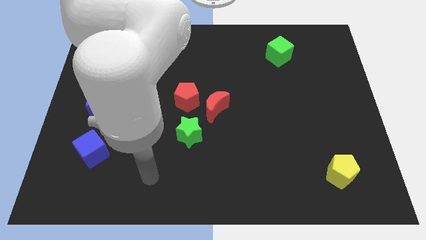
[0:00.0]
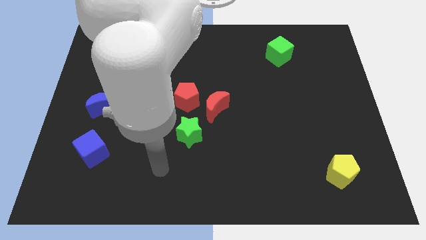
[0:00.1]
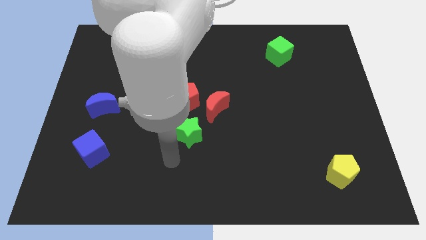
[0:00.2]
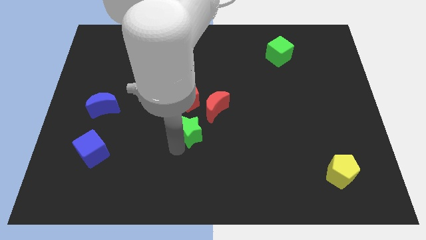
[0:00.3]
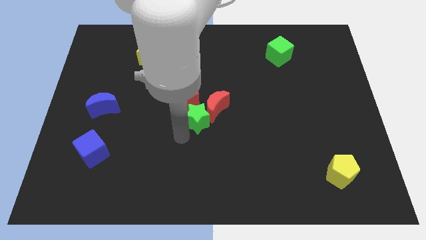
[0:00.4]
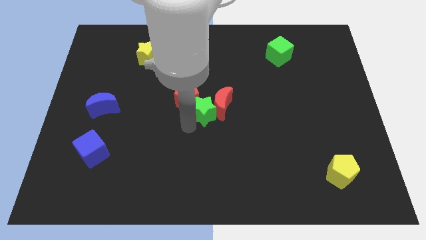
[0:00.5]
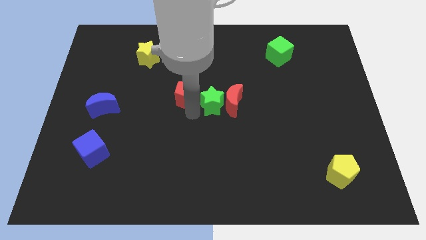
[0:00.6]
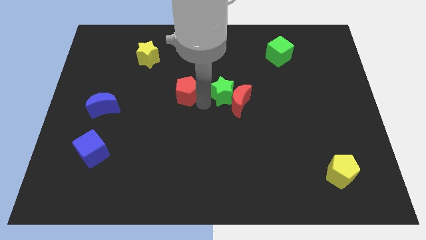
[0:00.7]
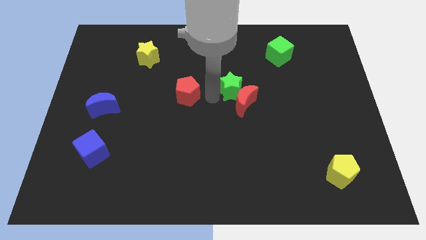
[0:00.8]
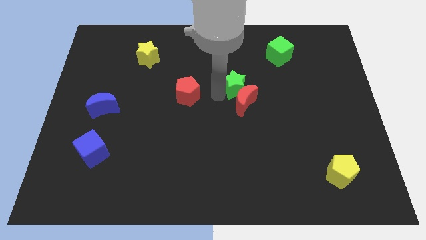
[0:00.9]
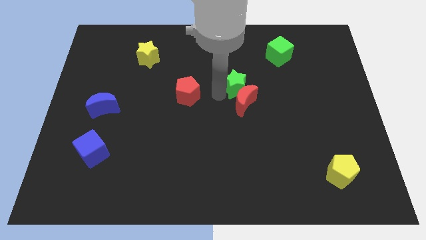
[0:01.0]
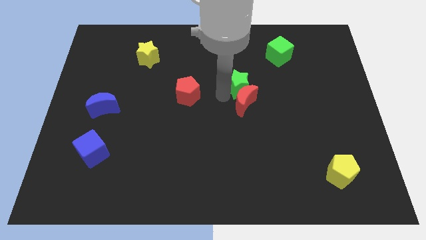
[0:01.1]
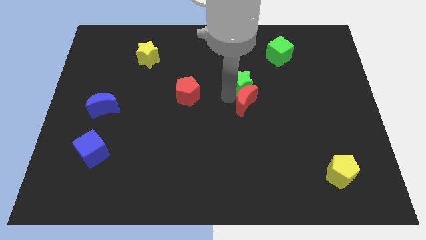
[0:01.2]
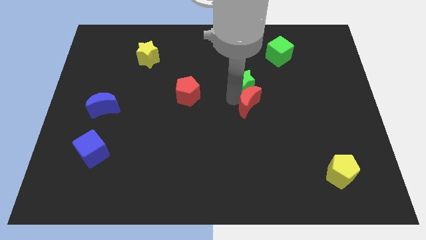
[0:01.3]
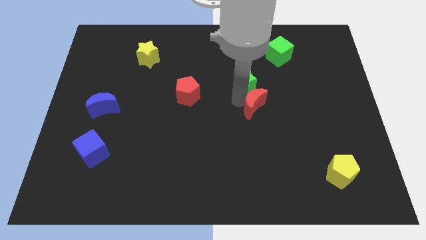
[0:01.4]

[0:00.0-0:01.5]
move the red moon away from the red pentagon and green star

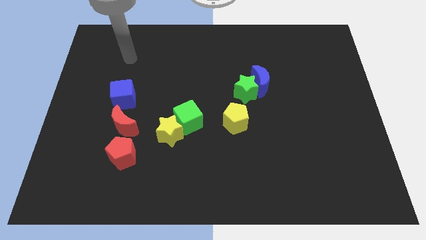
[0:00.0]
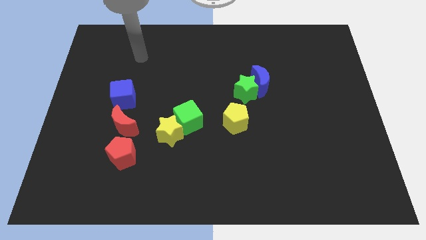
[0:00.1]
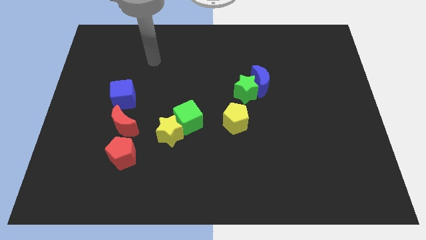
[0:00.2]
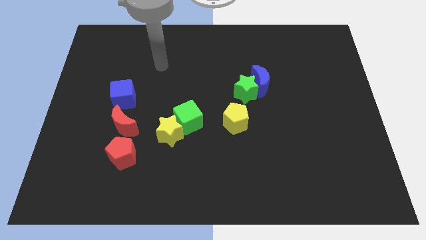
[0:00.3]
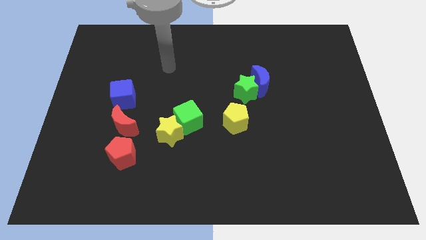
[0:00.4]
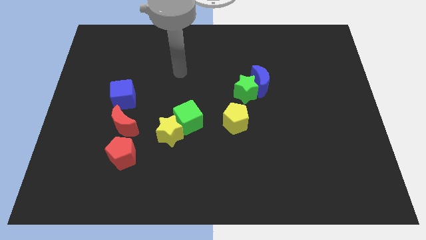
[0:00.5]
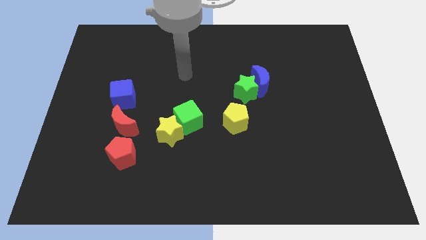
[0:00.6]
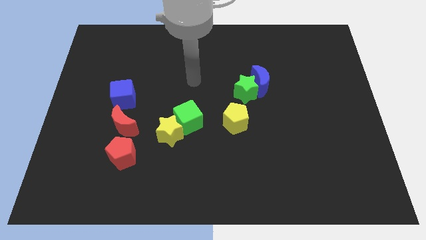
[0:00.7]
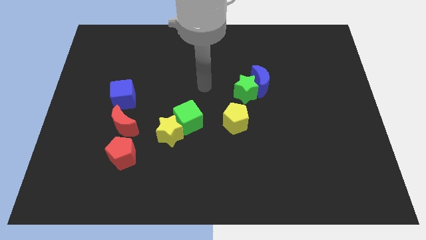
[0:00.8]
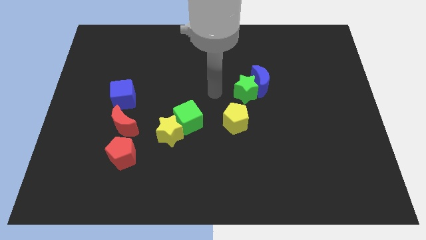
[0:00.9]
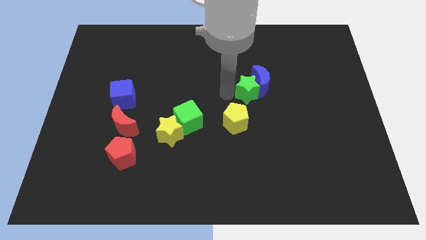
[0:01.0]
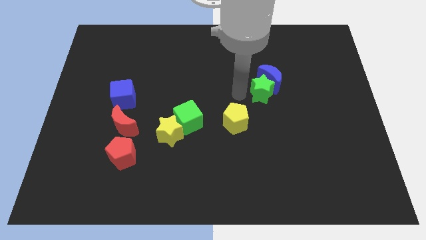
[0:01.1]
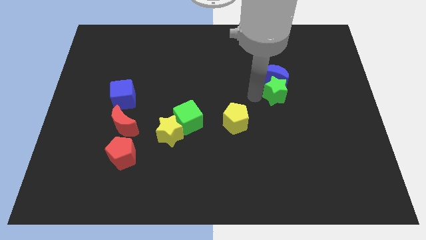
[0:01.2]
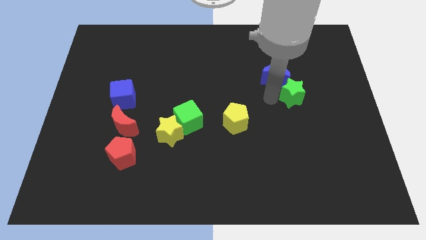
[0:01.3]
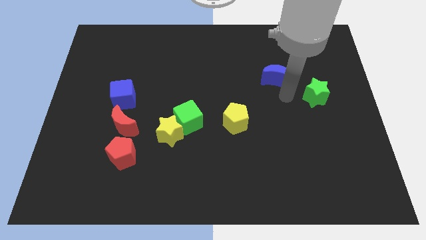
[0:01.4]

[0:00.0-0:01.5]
pull the blue moon apart from the green star

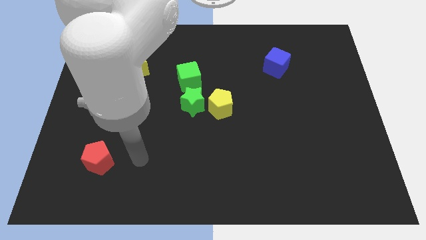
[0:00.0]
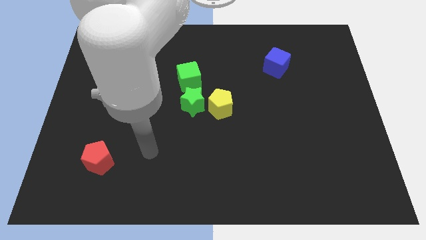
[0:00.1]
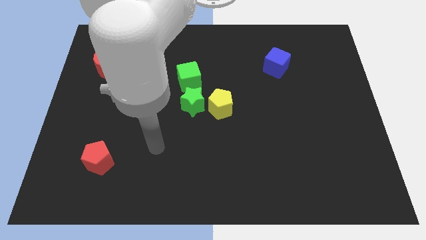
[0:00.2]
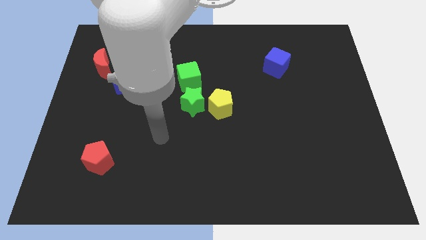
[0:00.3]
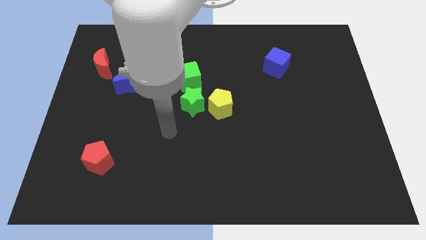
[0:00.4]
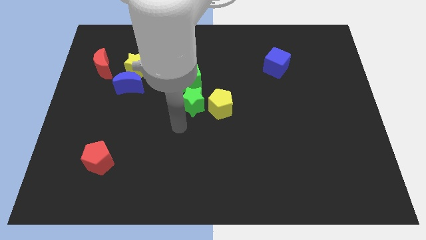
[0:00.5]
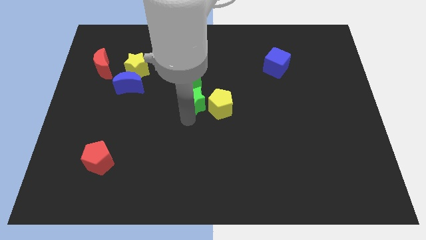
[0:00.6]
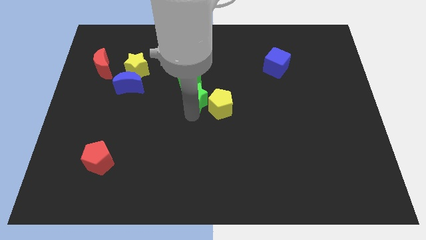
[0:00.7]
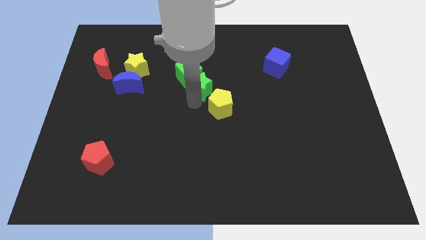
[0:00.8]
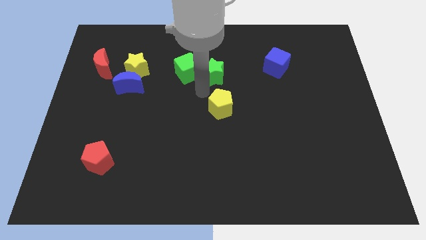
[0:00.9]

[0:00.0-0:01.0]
separate the yellow pentagon from the green star

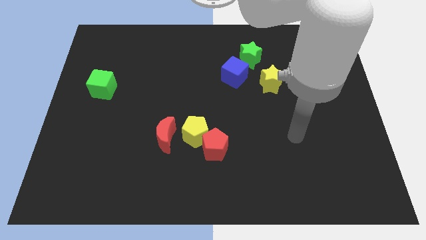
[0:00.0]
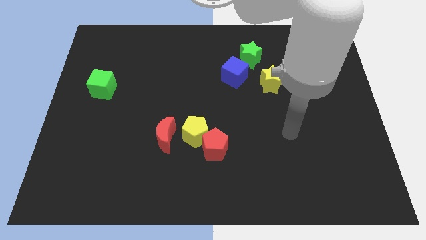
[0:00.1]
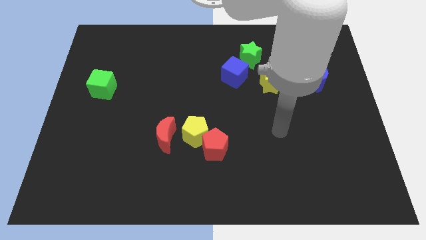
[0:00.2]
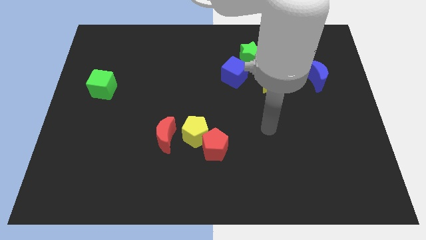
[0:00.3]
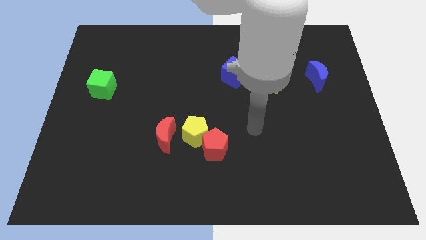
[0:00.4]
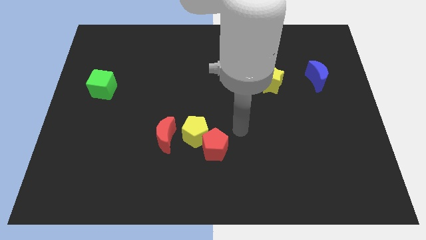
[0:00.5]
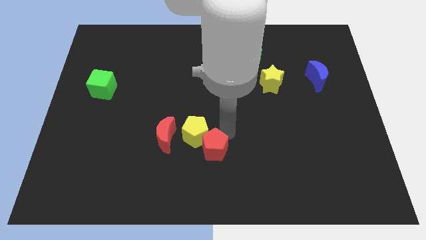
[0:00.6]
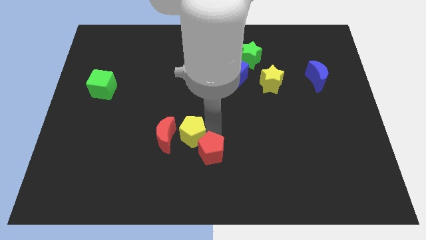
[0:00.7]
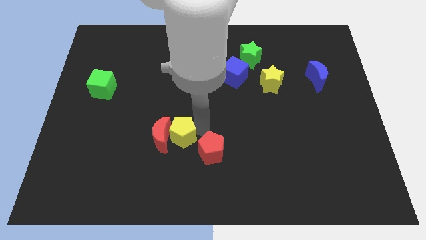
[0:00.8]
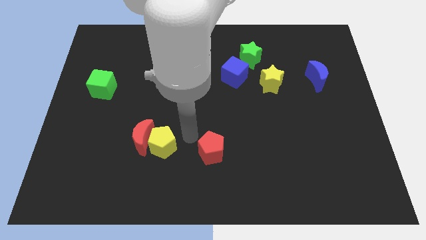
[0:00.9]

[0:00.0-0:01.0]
move the red pentagon away from the yellow pentagon

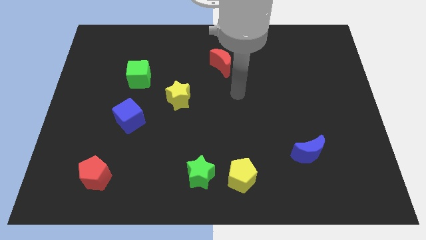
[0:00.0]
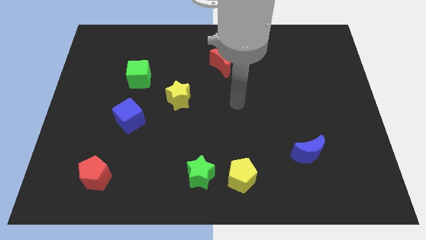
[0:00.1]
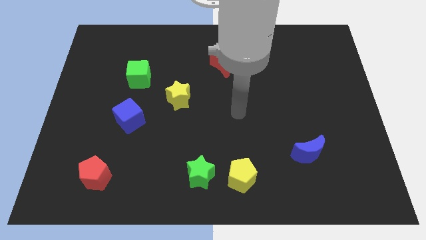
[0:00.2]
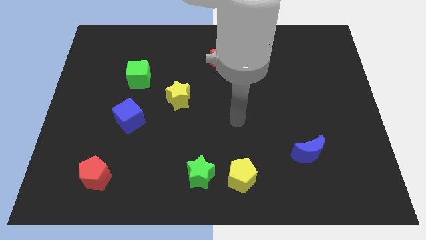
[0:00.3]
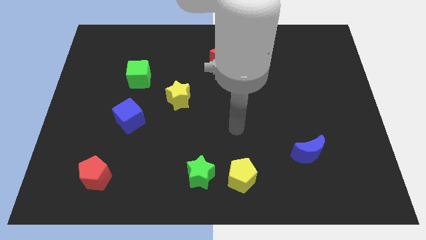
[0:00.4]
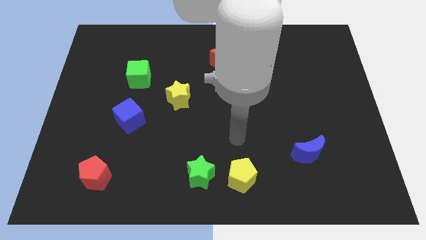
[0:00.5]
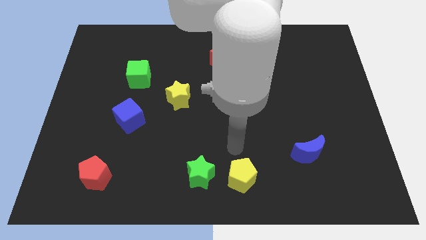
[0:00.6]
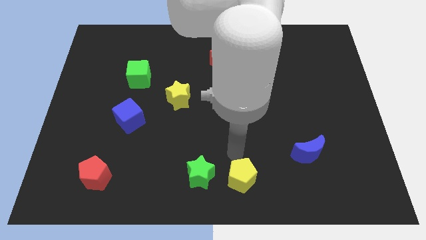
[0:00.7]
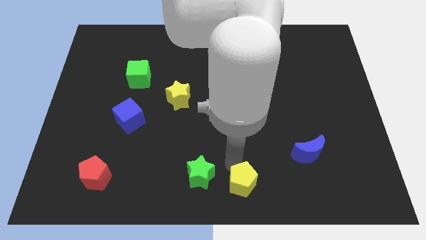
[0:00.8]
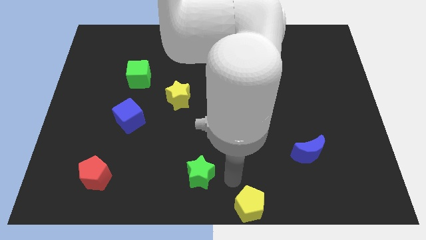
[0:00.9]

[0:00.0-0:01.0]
move the green star away from the yellow pentagon

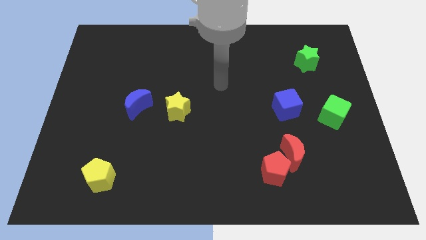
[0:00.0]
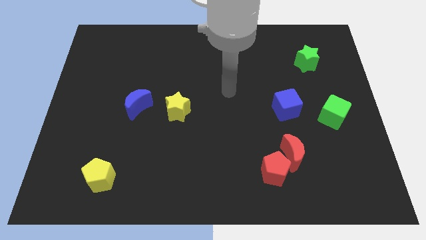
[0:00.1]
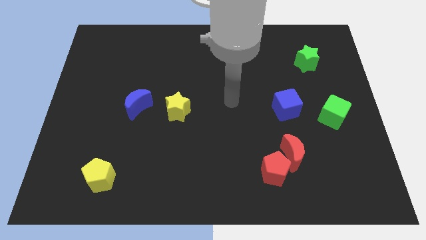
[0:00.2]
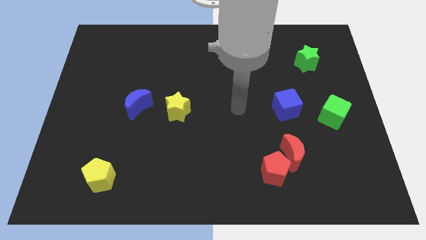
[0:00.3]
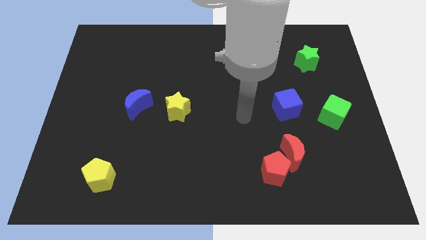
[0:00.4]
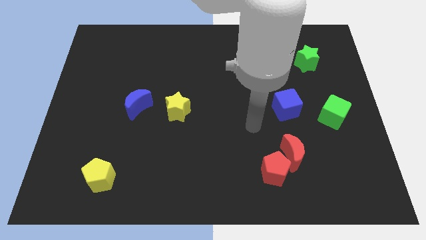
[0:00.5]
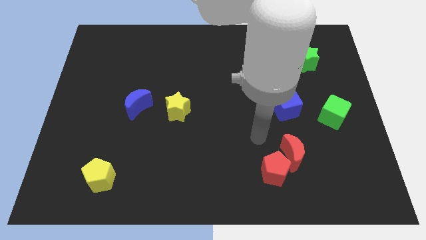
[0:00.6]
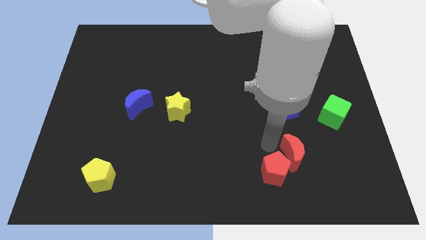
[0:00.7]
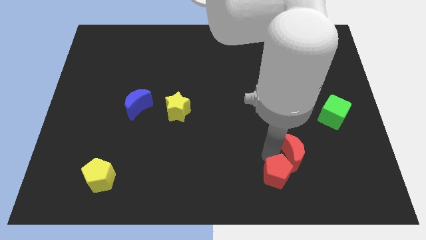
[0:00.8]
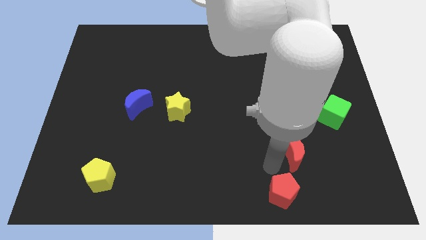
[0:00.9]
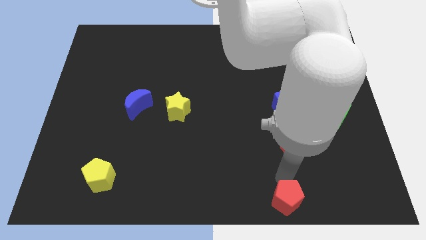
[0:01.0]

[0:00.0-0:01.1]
pull the red moon apart from the red pentagon

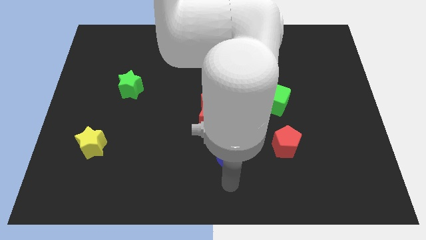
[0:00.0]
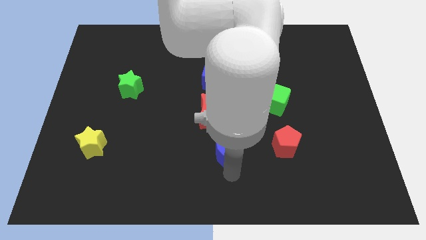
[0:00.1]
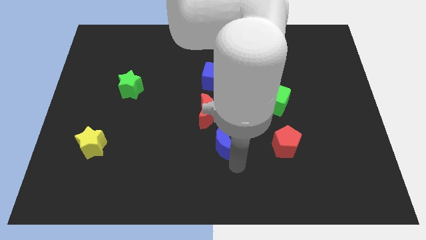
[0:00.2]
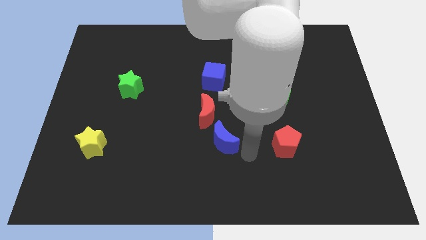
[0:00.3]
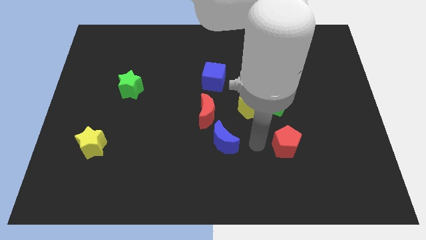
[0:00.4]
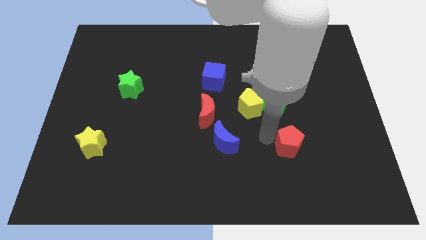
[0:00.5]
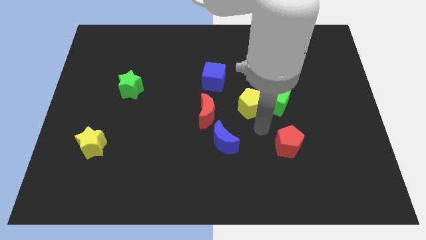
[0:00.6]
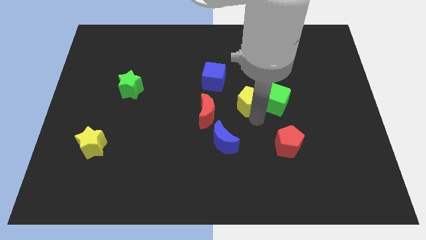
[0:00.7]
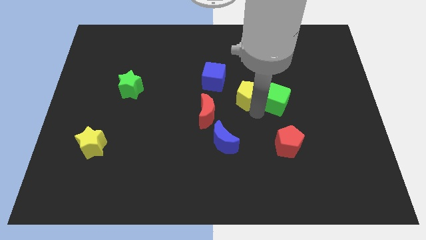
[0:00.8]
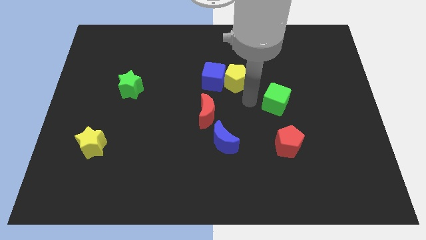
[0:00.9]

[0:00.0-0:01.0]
pull the green cube apart from the yellow pentagon

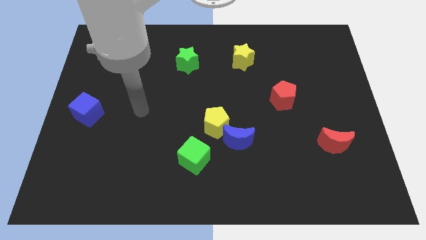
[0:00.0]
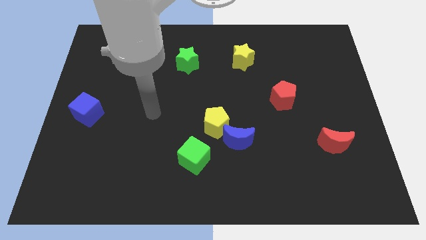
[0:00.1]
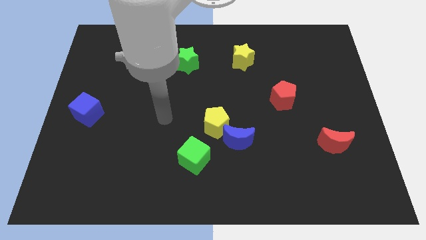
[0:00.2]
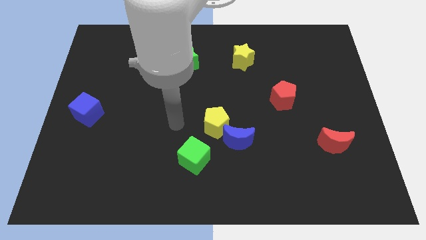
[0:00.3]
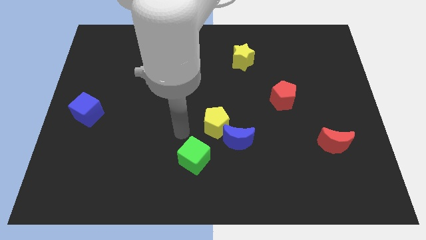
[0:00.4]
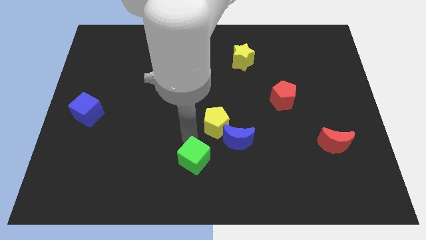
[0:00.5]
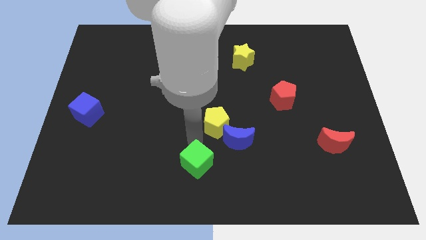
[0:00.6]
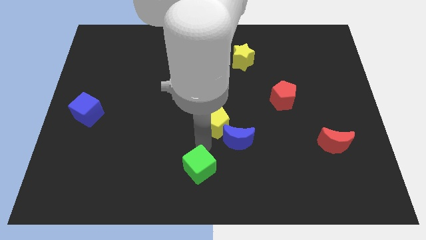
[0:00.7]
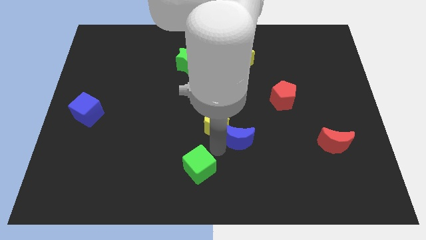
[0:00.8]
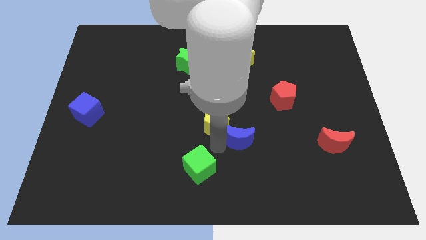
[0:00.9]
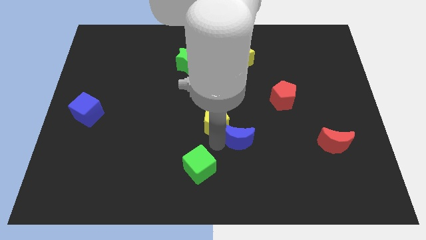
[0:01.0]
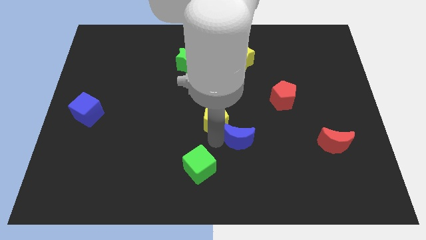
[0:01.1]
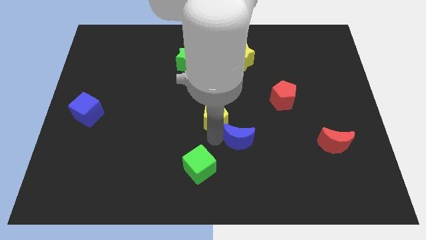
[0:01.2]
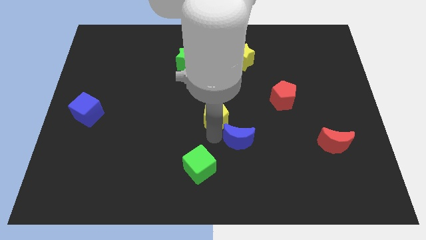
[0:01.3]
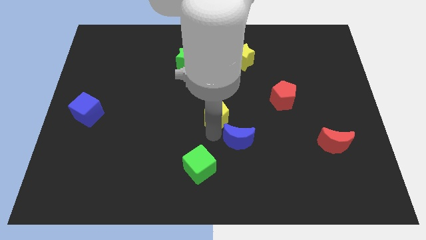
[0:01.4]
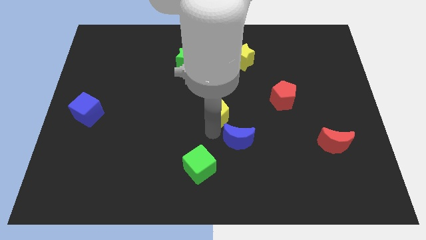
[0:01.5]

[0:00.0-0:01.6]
separate the yellow pentagon from the blue moon and green cube
